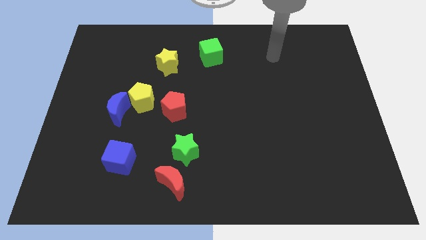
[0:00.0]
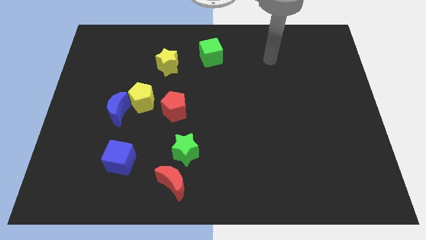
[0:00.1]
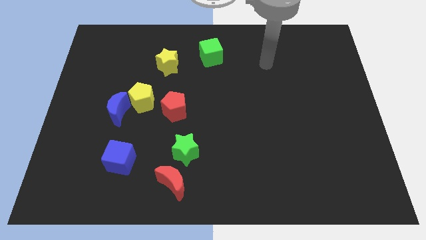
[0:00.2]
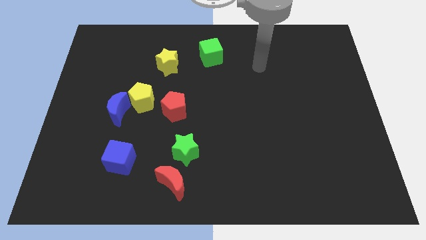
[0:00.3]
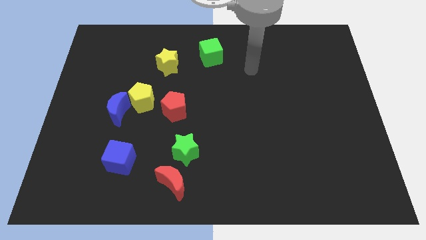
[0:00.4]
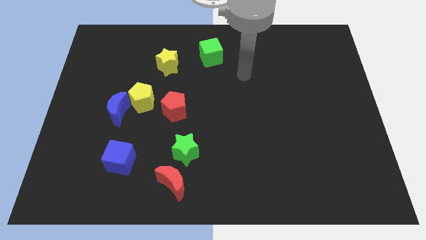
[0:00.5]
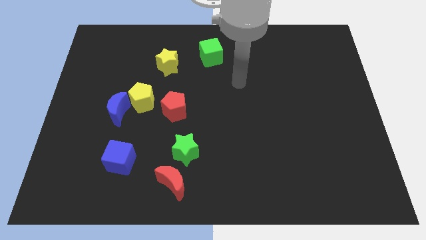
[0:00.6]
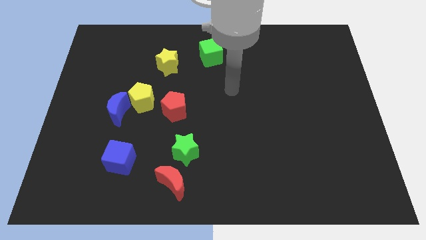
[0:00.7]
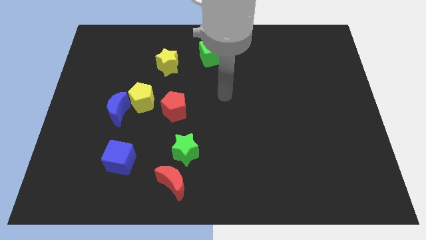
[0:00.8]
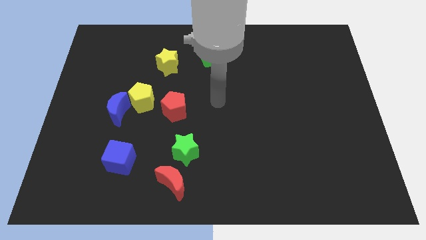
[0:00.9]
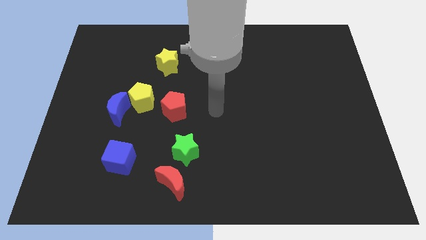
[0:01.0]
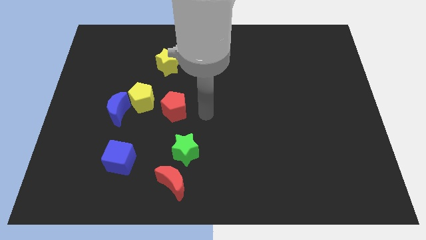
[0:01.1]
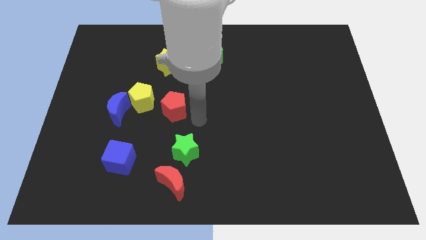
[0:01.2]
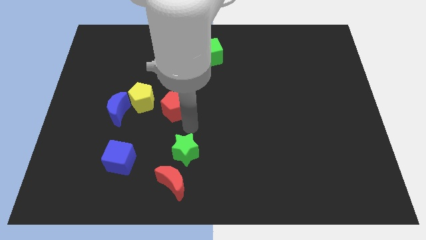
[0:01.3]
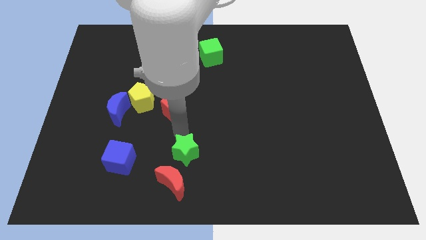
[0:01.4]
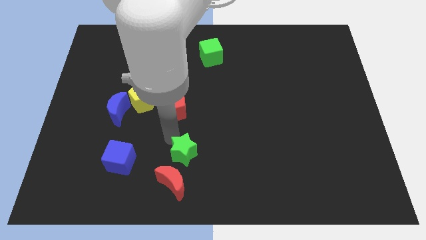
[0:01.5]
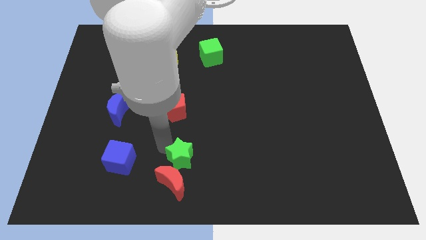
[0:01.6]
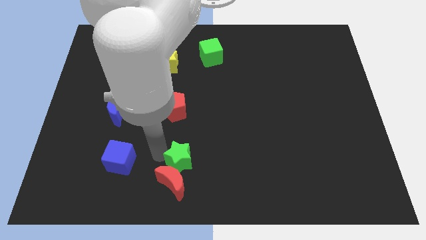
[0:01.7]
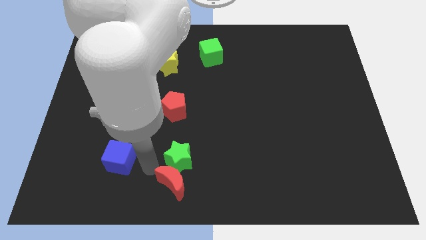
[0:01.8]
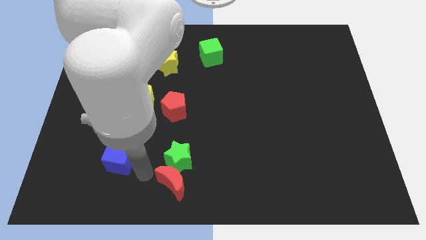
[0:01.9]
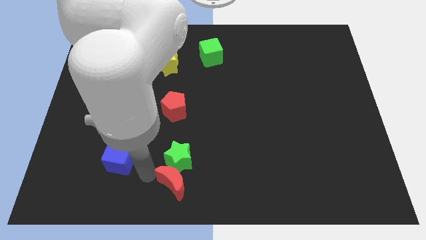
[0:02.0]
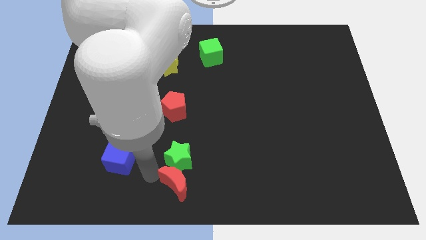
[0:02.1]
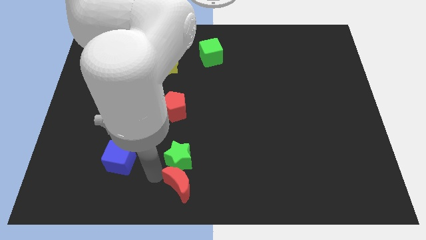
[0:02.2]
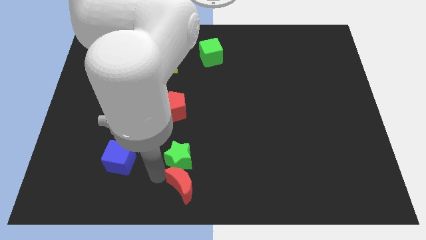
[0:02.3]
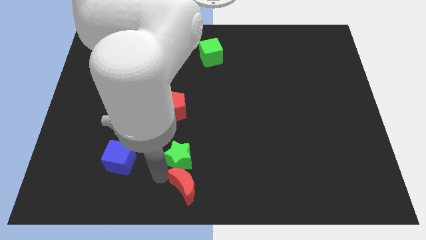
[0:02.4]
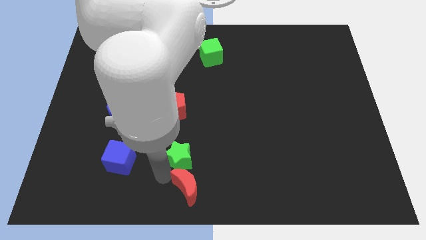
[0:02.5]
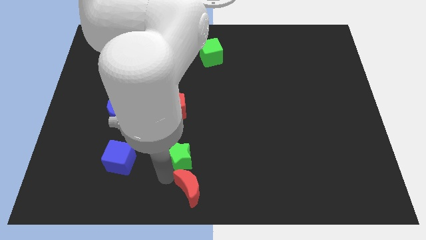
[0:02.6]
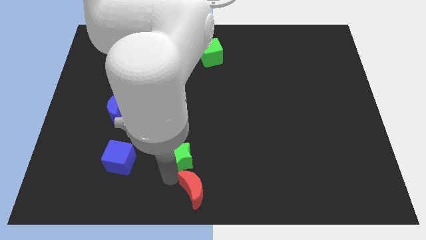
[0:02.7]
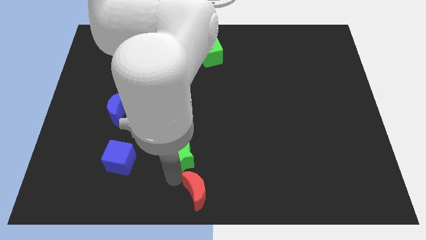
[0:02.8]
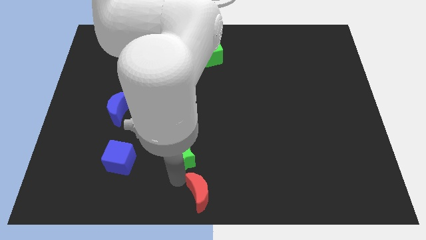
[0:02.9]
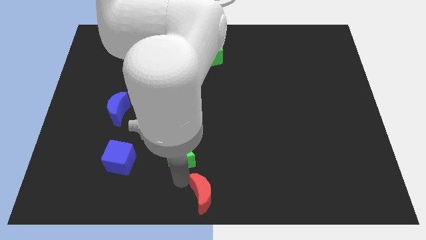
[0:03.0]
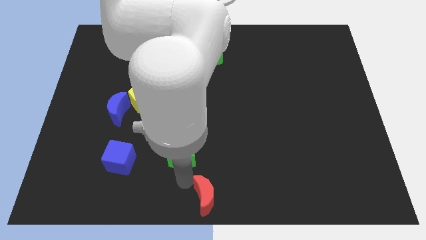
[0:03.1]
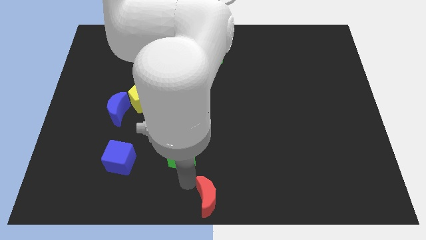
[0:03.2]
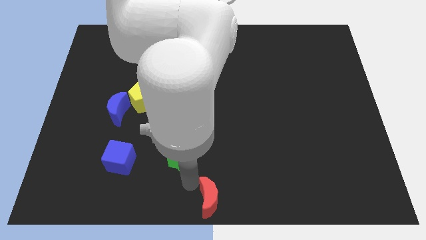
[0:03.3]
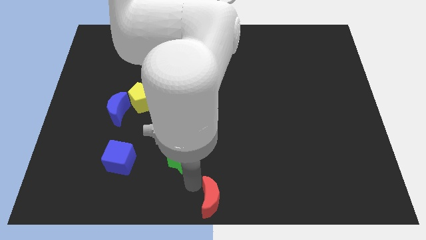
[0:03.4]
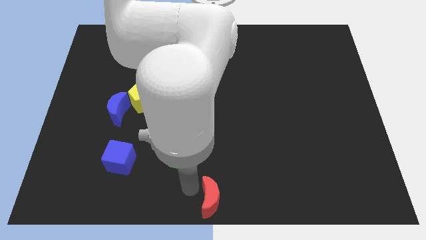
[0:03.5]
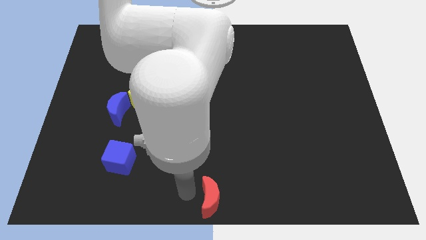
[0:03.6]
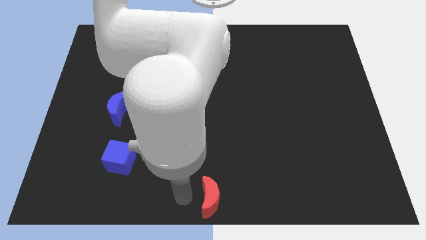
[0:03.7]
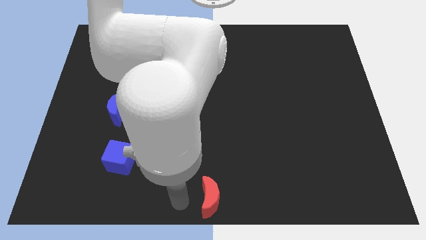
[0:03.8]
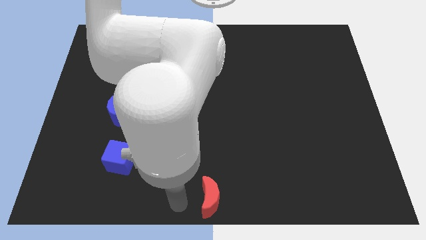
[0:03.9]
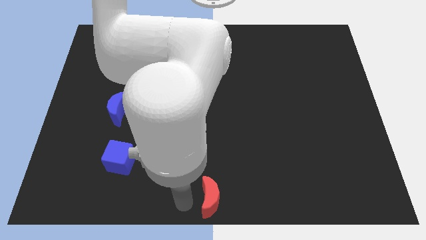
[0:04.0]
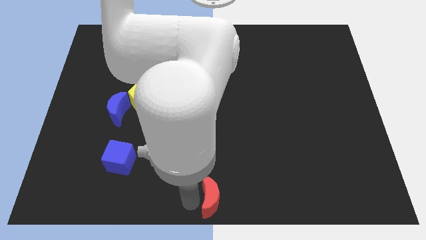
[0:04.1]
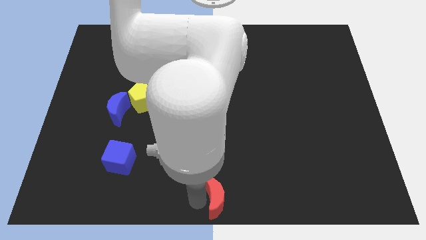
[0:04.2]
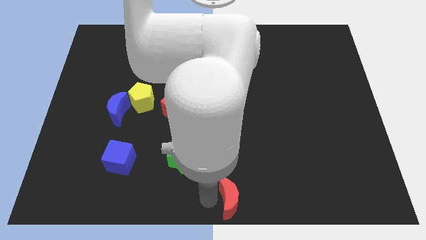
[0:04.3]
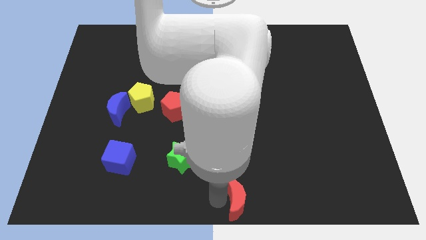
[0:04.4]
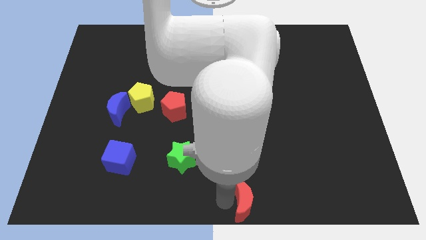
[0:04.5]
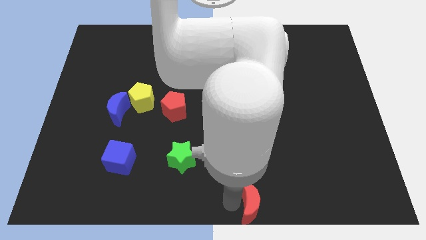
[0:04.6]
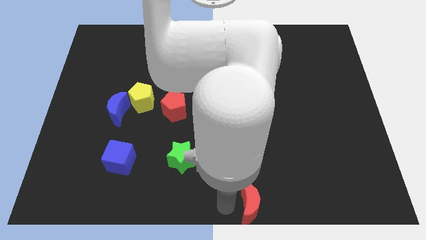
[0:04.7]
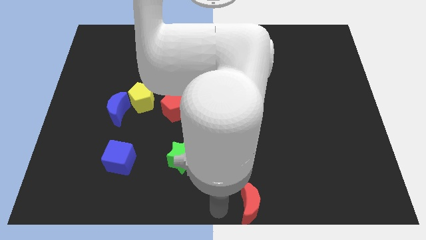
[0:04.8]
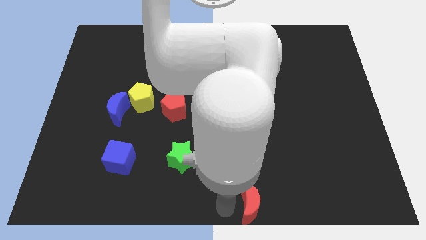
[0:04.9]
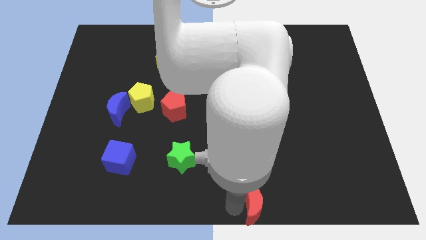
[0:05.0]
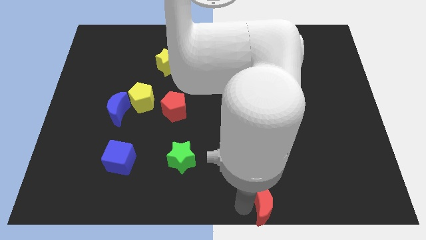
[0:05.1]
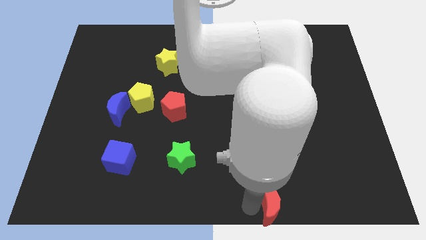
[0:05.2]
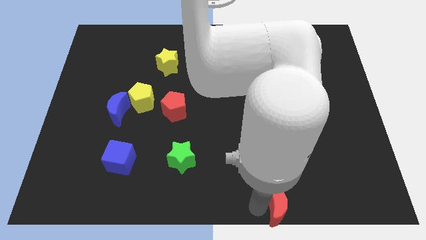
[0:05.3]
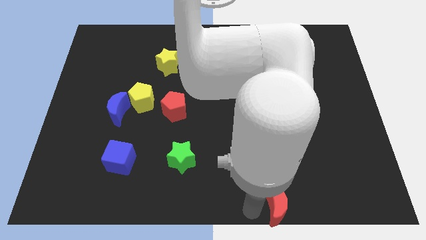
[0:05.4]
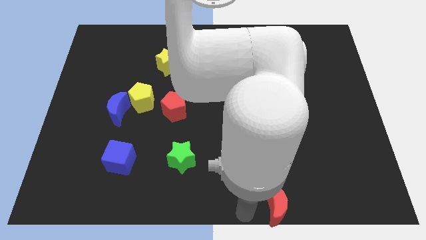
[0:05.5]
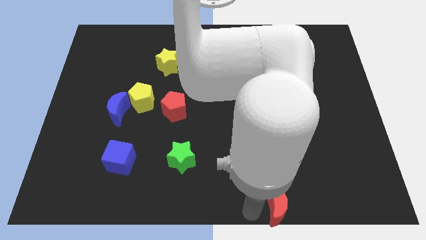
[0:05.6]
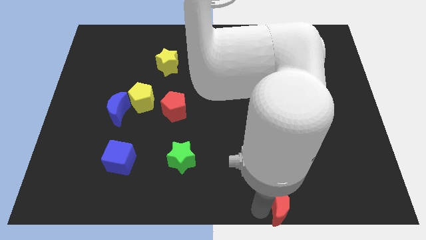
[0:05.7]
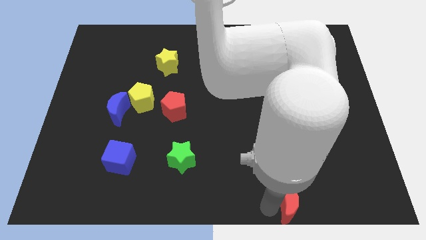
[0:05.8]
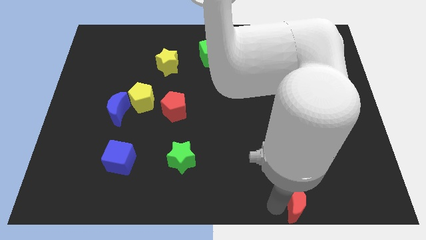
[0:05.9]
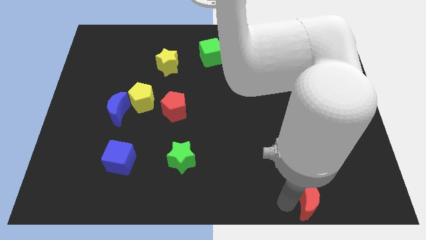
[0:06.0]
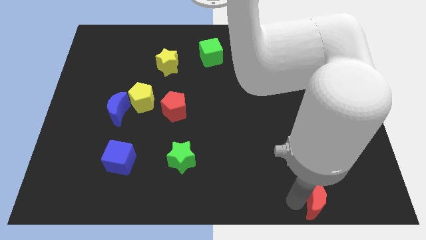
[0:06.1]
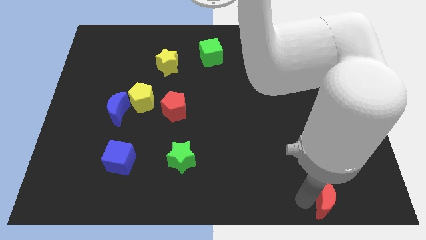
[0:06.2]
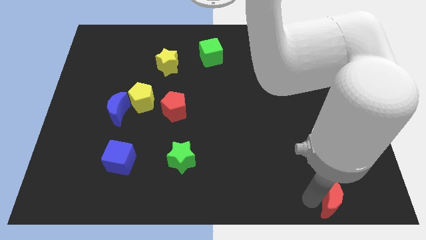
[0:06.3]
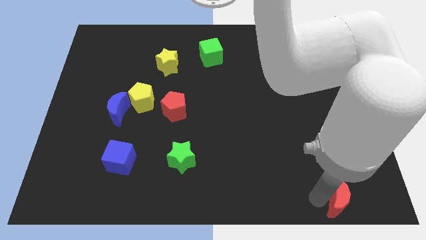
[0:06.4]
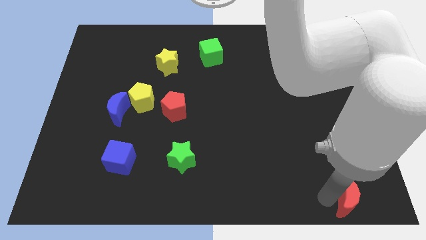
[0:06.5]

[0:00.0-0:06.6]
slide the red moon to the bottom right of the board
